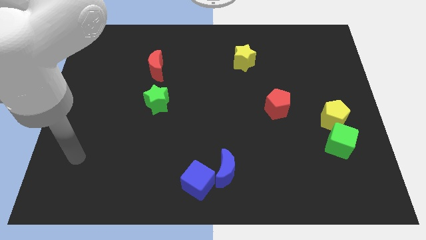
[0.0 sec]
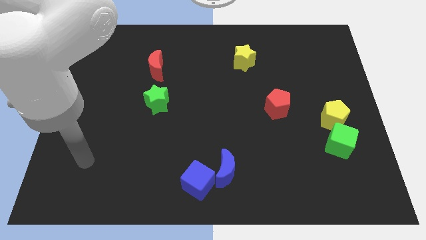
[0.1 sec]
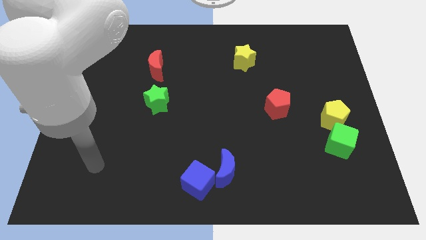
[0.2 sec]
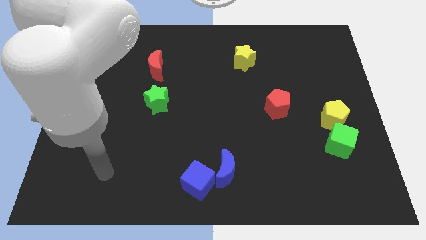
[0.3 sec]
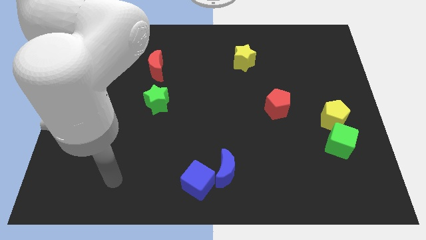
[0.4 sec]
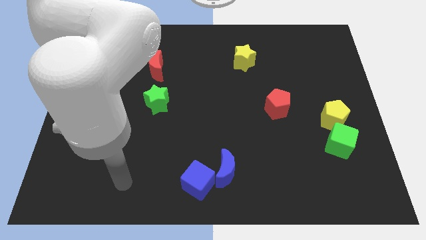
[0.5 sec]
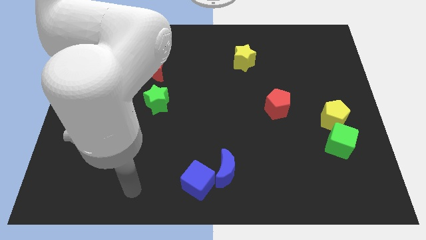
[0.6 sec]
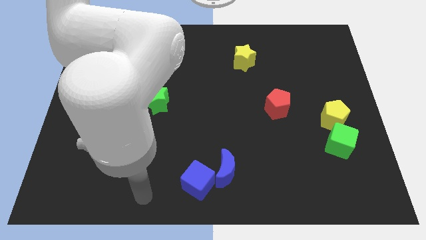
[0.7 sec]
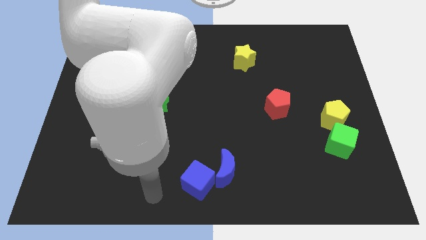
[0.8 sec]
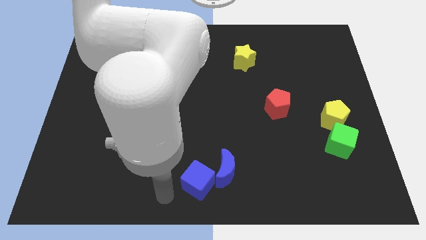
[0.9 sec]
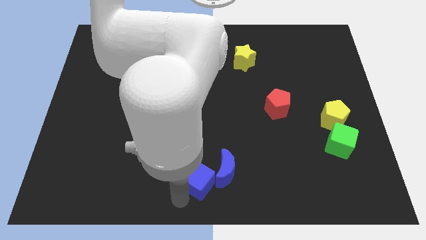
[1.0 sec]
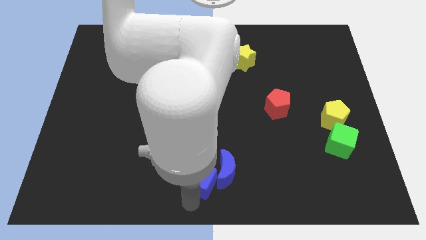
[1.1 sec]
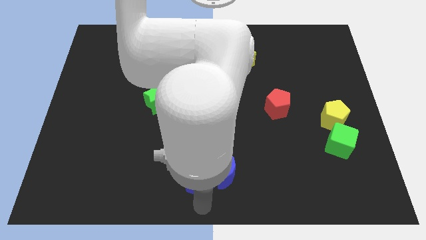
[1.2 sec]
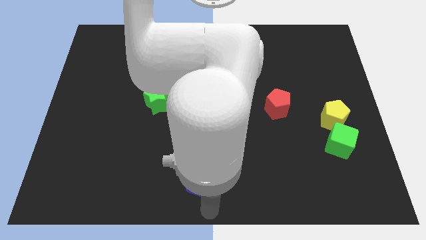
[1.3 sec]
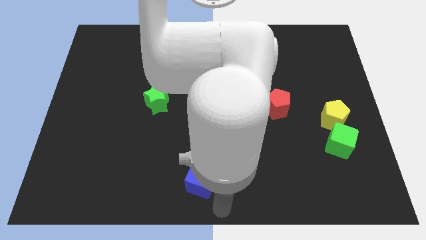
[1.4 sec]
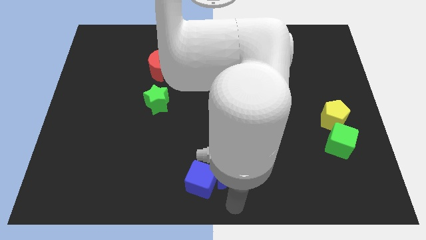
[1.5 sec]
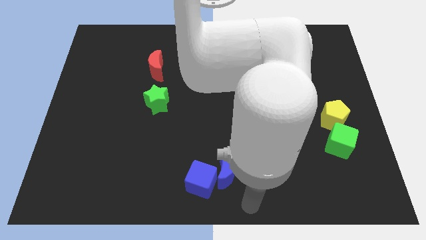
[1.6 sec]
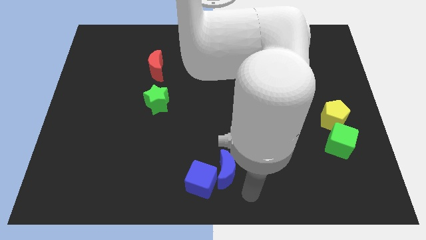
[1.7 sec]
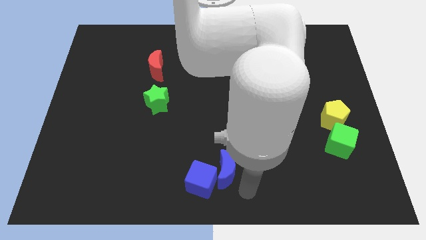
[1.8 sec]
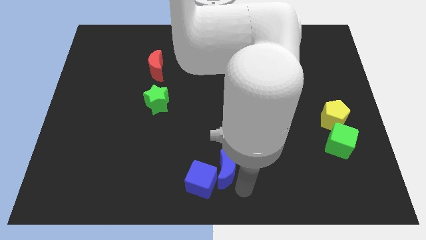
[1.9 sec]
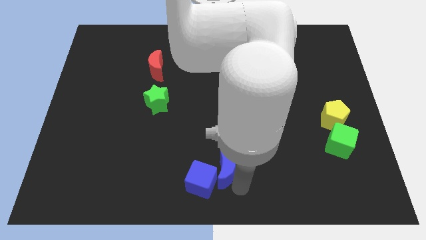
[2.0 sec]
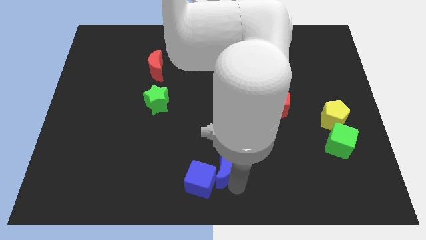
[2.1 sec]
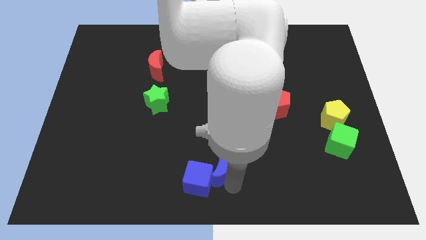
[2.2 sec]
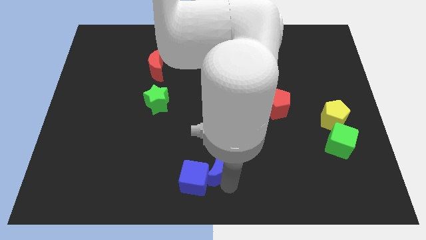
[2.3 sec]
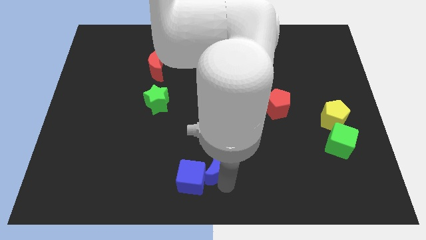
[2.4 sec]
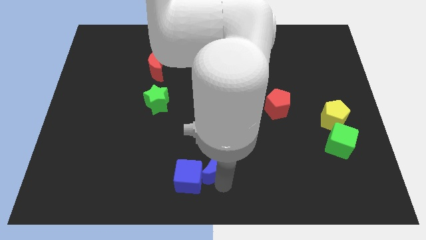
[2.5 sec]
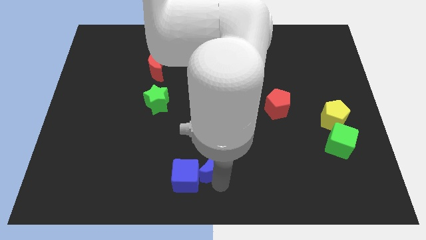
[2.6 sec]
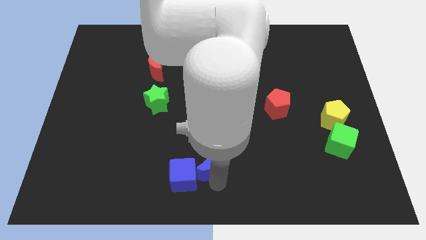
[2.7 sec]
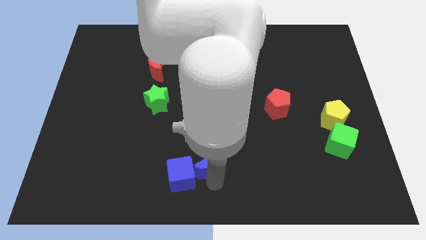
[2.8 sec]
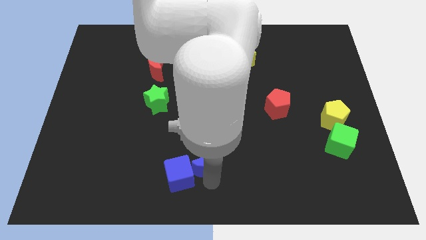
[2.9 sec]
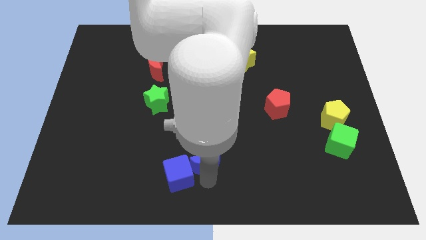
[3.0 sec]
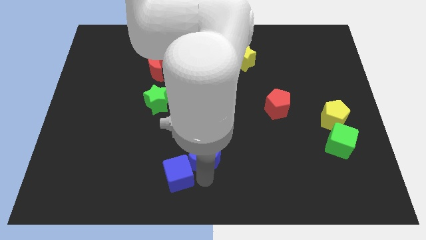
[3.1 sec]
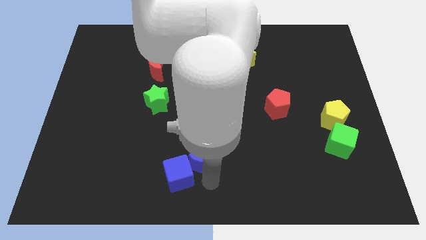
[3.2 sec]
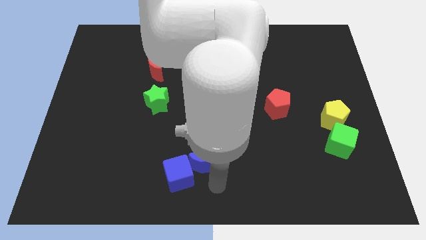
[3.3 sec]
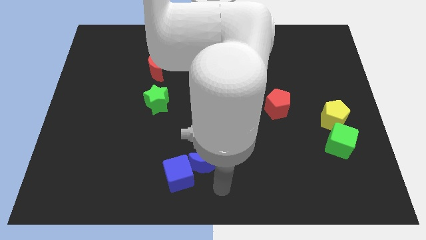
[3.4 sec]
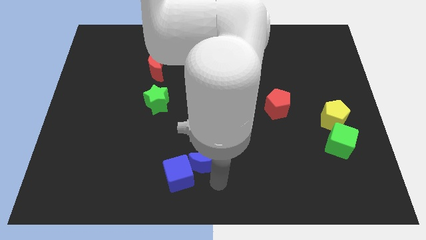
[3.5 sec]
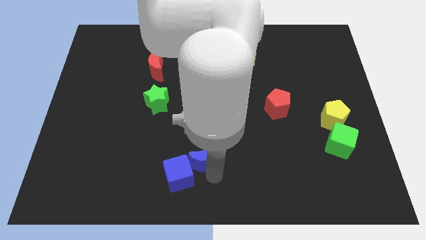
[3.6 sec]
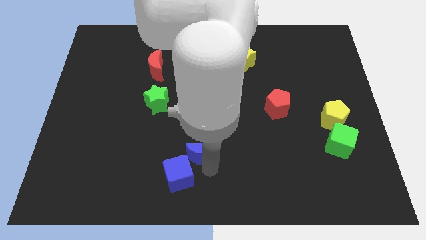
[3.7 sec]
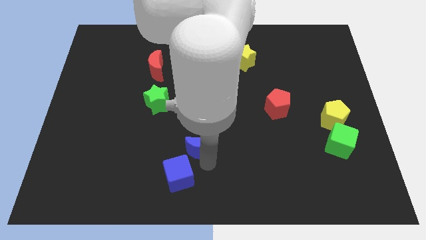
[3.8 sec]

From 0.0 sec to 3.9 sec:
push the blue moon a little bit upwards and then left

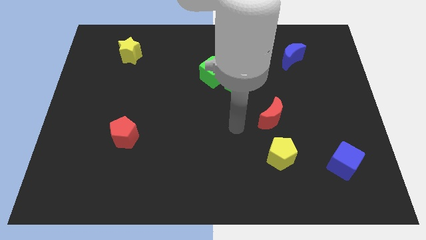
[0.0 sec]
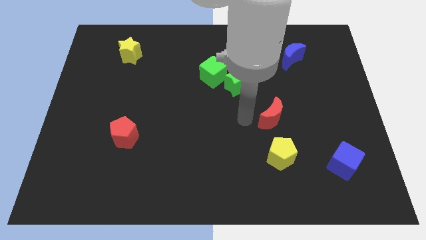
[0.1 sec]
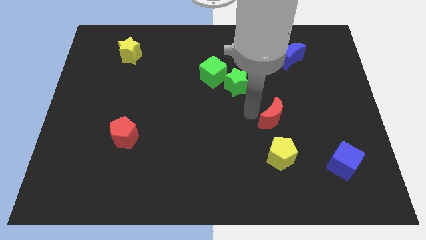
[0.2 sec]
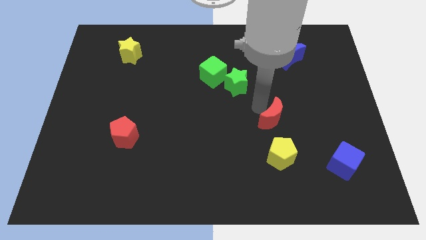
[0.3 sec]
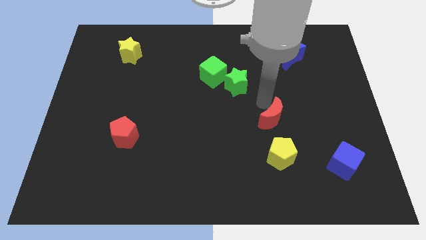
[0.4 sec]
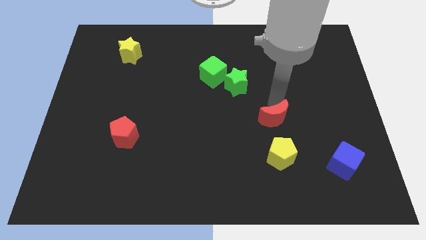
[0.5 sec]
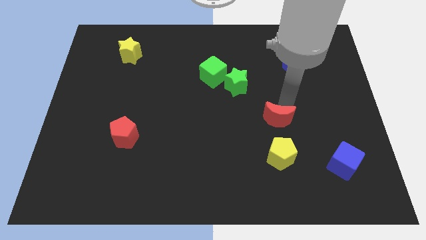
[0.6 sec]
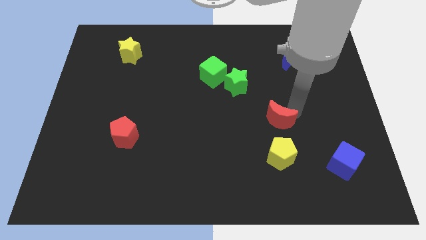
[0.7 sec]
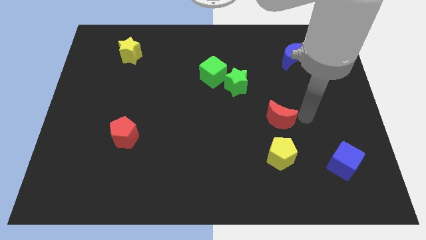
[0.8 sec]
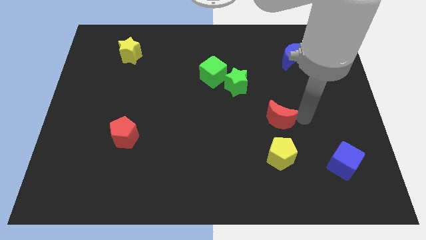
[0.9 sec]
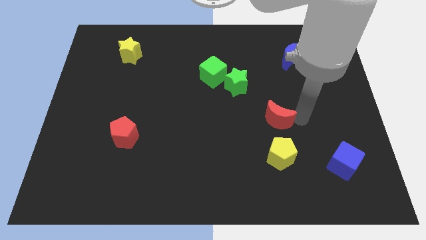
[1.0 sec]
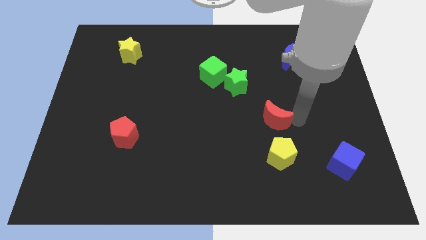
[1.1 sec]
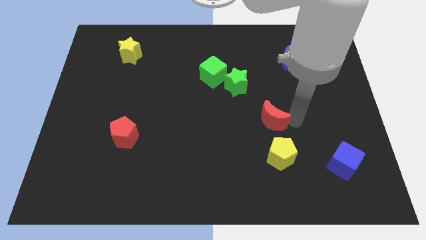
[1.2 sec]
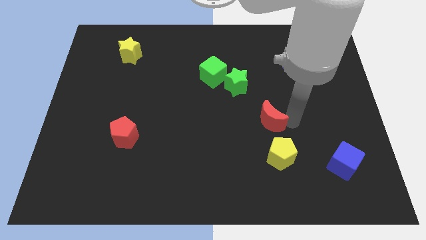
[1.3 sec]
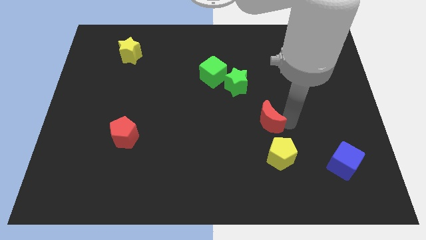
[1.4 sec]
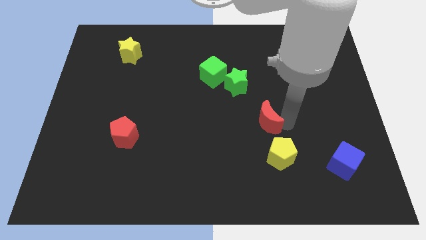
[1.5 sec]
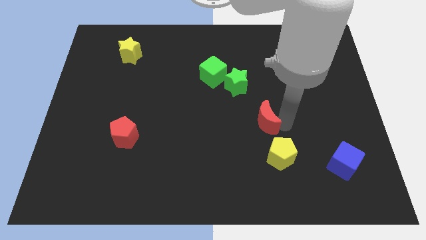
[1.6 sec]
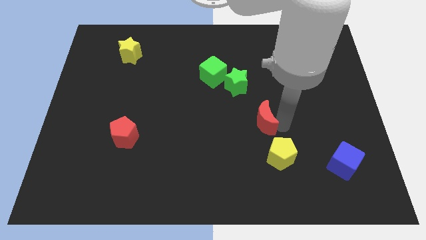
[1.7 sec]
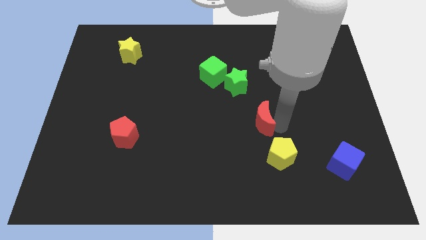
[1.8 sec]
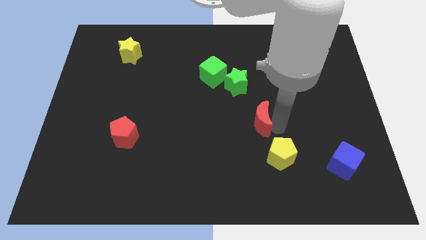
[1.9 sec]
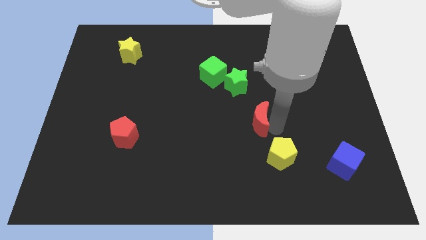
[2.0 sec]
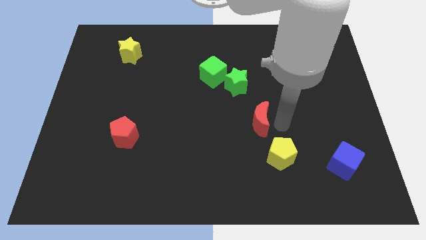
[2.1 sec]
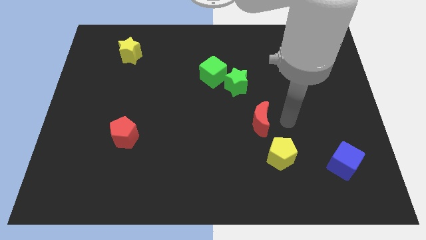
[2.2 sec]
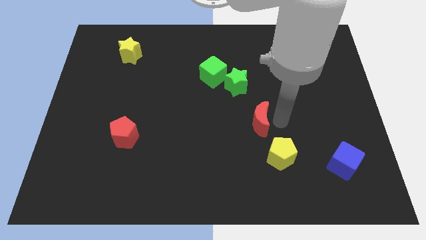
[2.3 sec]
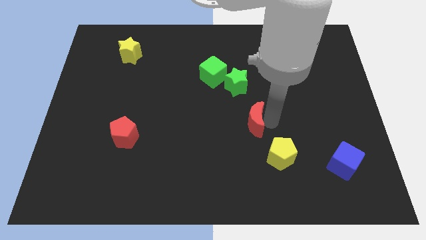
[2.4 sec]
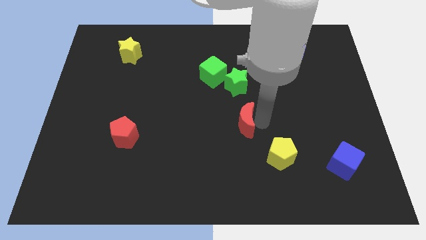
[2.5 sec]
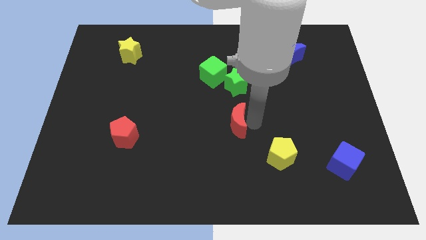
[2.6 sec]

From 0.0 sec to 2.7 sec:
move the red moon to the left a bit

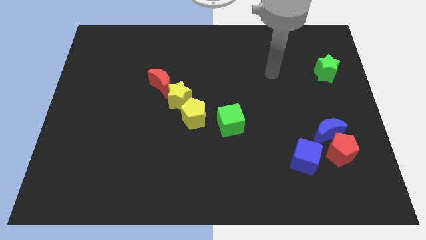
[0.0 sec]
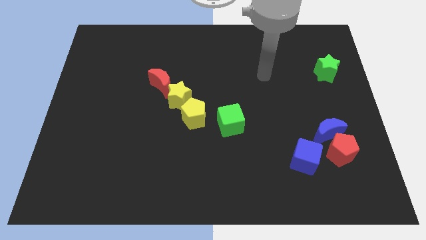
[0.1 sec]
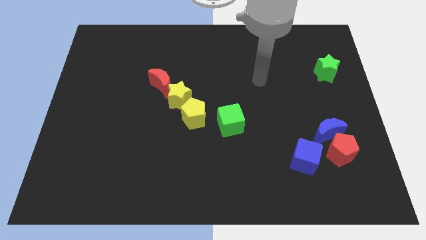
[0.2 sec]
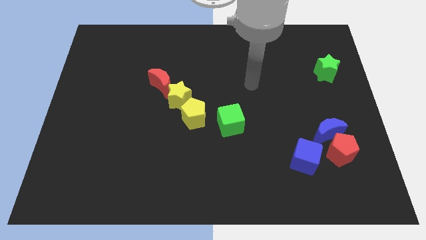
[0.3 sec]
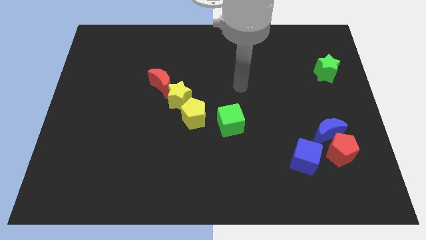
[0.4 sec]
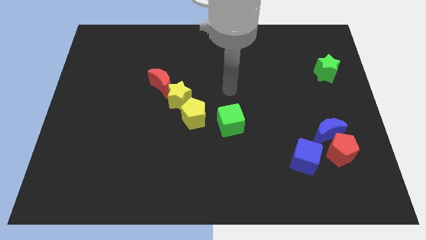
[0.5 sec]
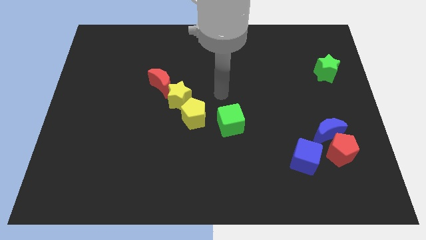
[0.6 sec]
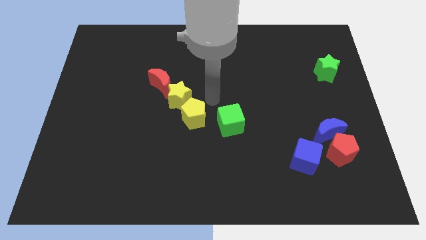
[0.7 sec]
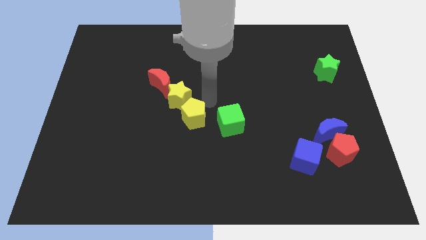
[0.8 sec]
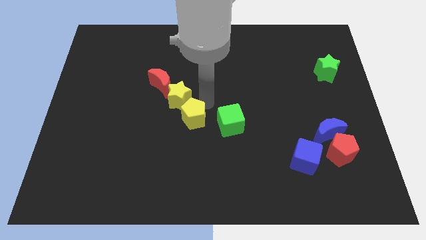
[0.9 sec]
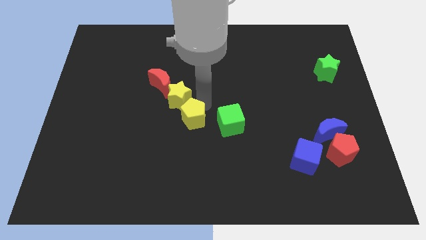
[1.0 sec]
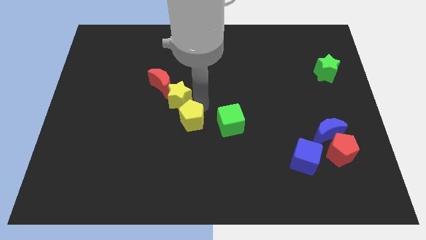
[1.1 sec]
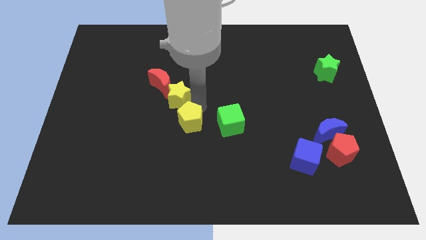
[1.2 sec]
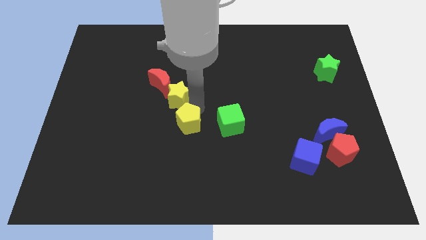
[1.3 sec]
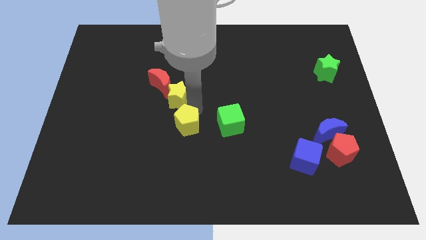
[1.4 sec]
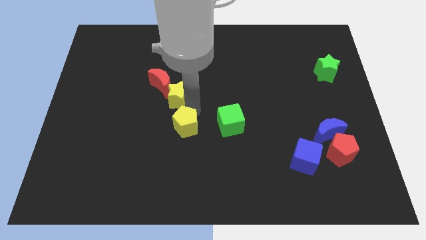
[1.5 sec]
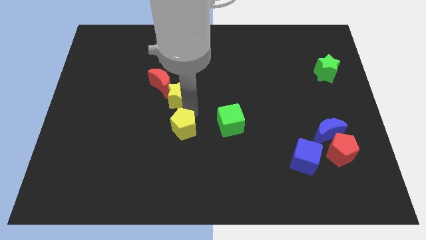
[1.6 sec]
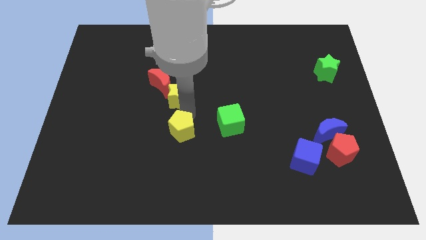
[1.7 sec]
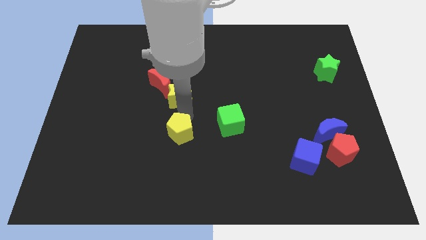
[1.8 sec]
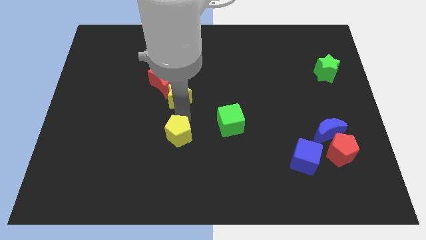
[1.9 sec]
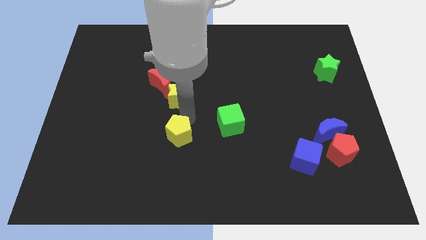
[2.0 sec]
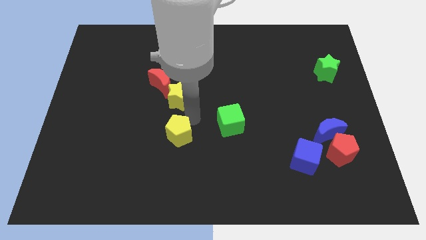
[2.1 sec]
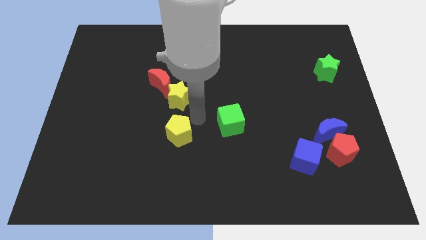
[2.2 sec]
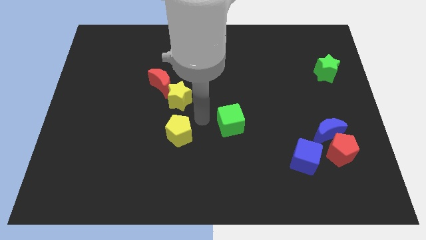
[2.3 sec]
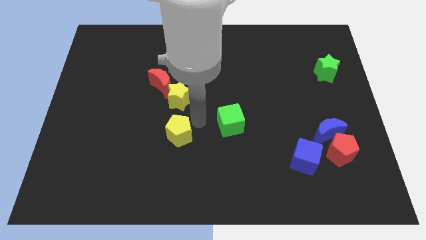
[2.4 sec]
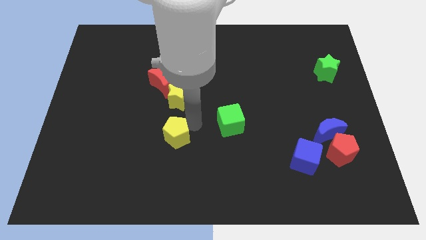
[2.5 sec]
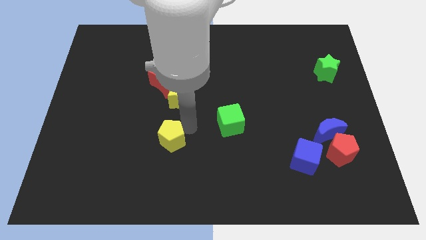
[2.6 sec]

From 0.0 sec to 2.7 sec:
push the yellow pentagon down and left a bit
